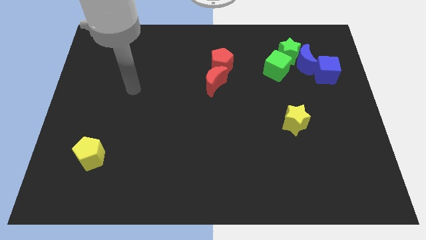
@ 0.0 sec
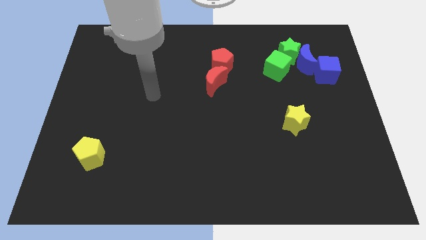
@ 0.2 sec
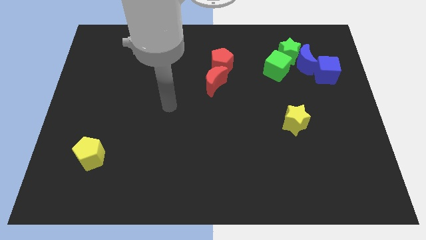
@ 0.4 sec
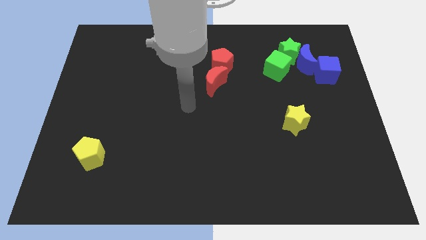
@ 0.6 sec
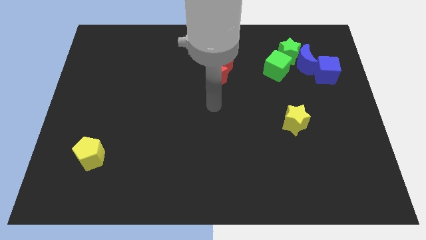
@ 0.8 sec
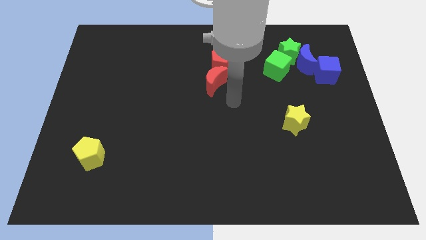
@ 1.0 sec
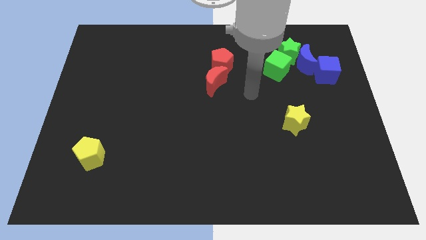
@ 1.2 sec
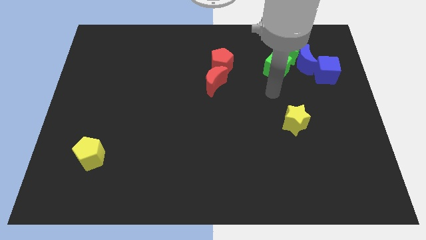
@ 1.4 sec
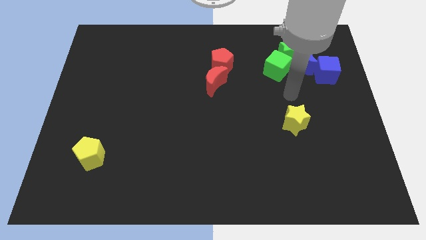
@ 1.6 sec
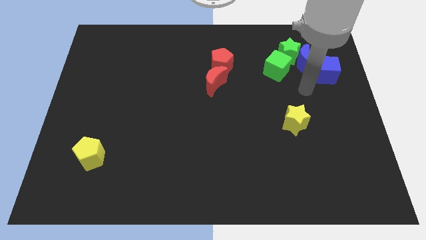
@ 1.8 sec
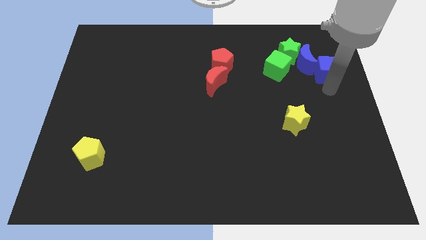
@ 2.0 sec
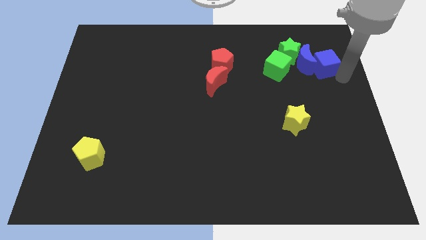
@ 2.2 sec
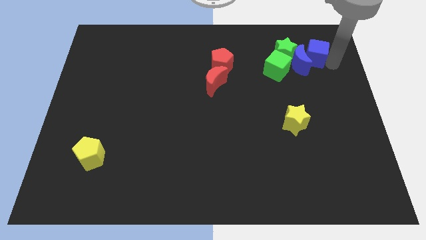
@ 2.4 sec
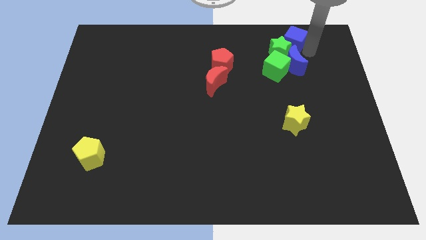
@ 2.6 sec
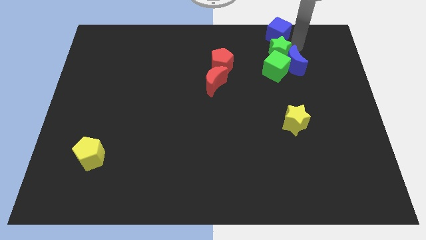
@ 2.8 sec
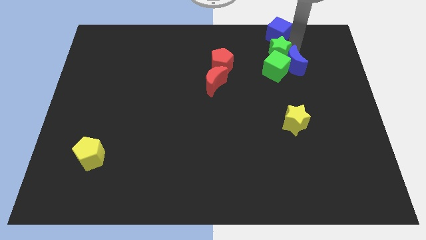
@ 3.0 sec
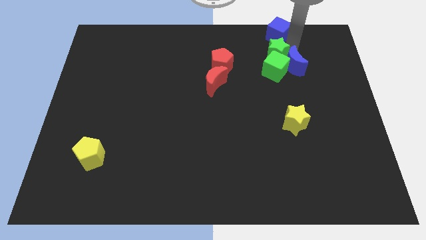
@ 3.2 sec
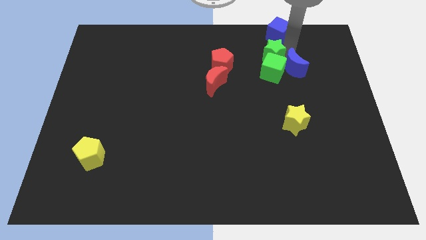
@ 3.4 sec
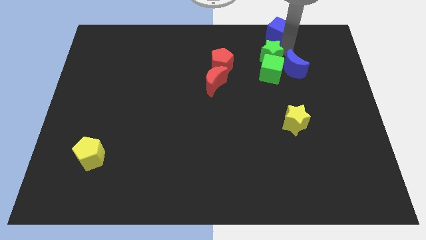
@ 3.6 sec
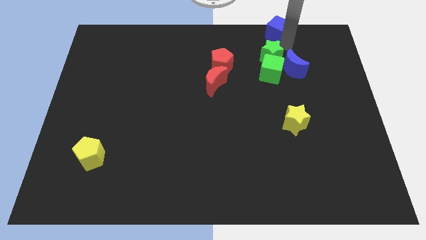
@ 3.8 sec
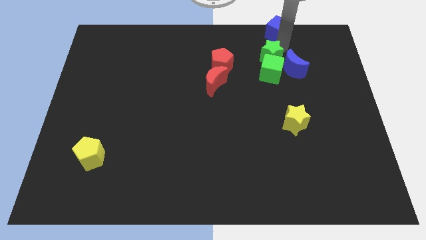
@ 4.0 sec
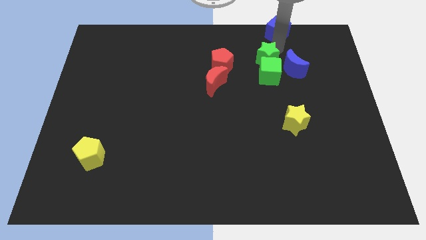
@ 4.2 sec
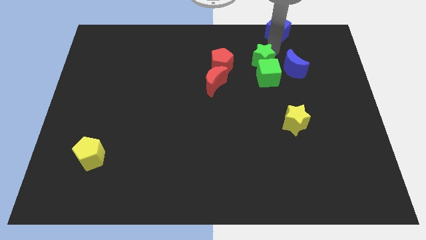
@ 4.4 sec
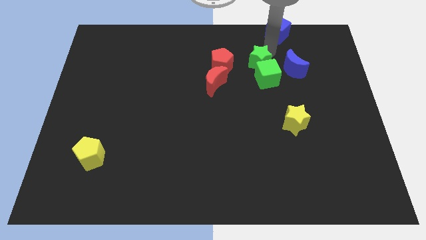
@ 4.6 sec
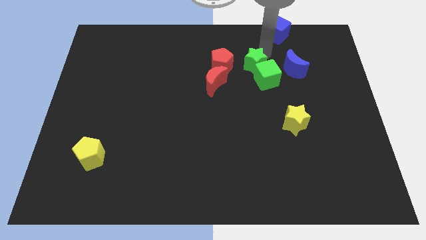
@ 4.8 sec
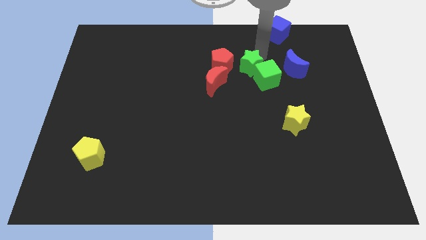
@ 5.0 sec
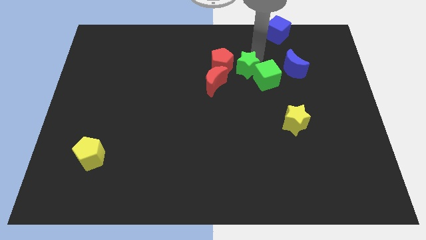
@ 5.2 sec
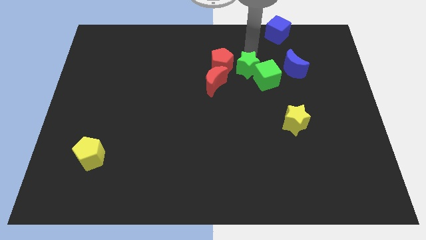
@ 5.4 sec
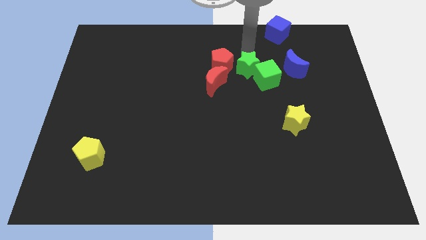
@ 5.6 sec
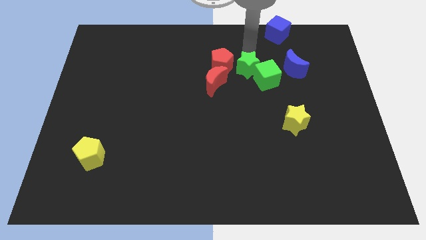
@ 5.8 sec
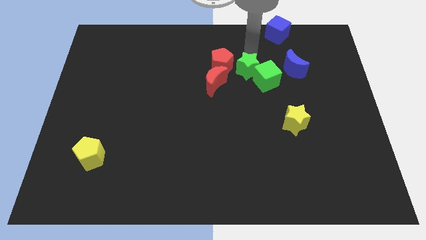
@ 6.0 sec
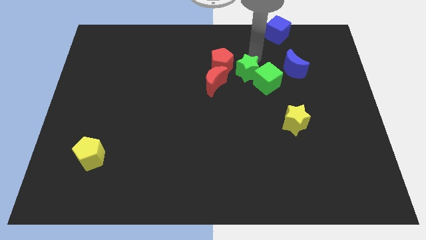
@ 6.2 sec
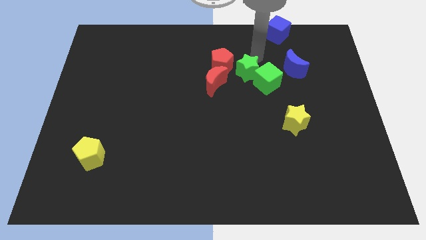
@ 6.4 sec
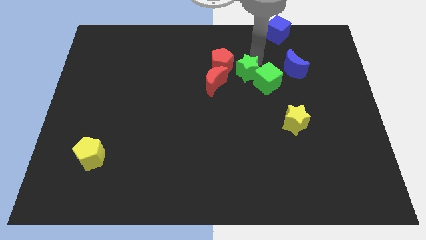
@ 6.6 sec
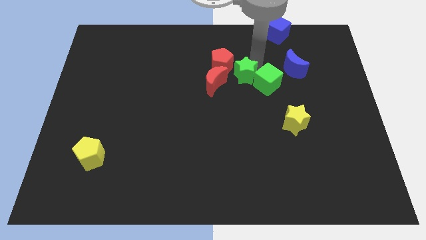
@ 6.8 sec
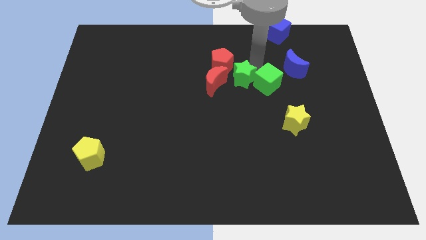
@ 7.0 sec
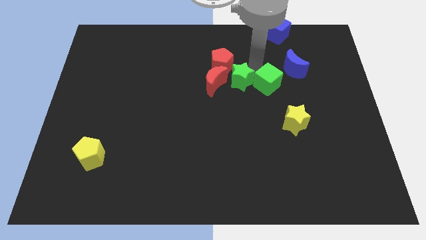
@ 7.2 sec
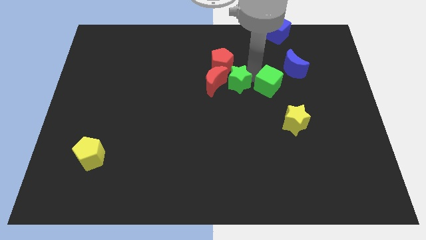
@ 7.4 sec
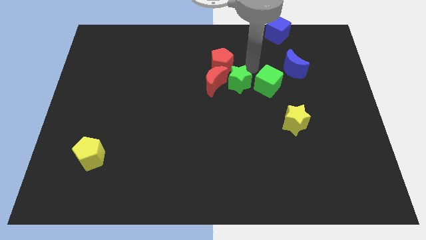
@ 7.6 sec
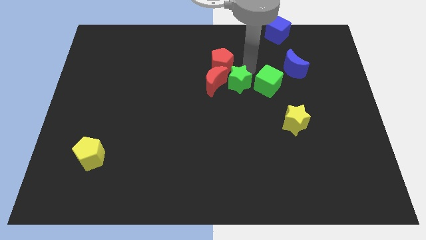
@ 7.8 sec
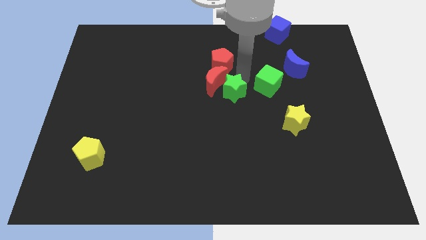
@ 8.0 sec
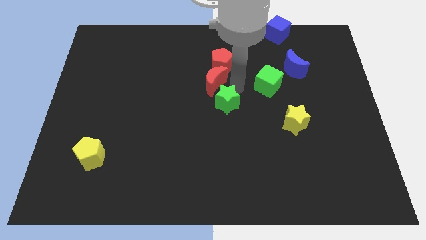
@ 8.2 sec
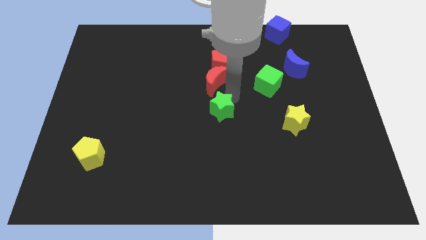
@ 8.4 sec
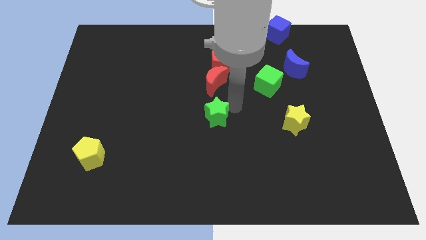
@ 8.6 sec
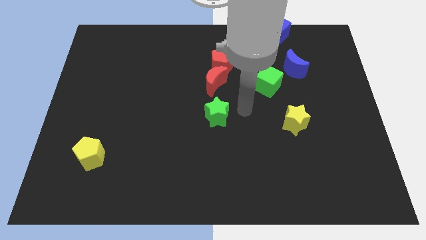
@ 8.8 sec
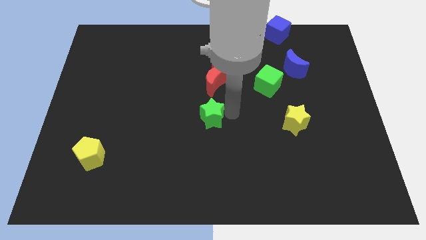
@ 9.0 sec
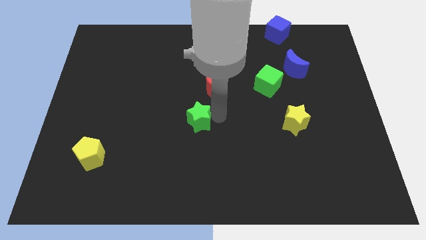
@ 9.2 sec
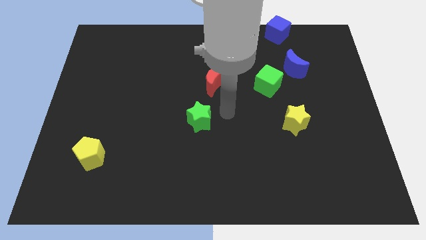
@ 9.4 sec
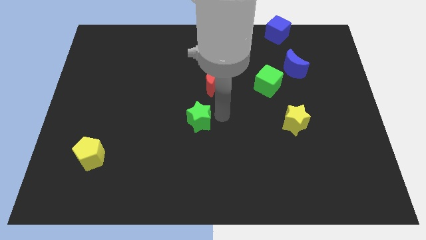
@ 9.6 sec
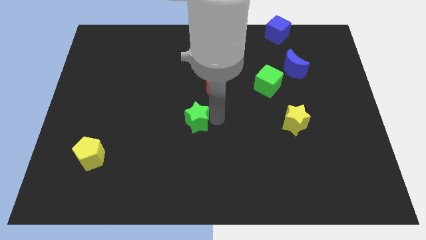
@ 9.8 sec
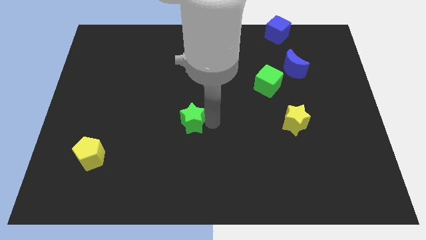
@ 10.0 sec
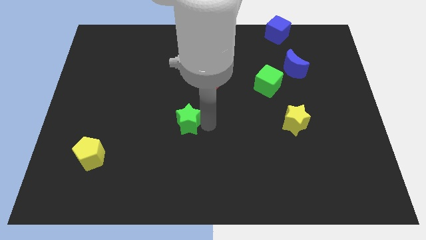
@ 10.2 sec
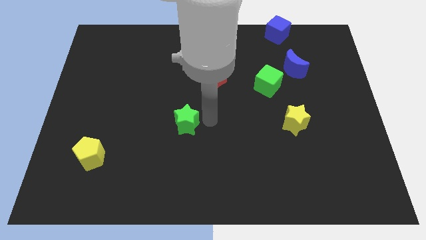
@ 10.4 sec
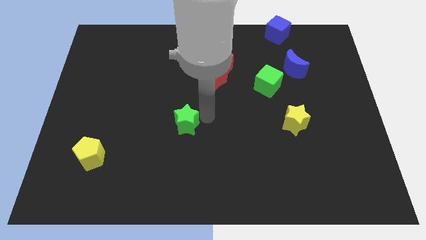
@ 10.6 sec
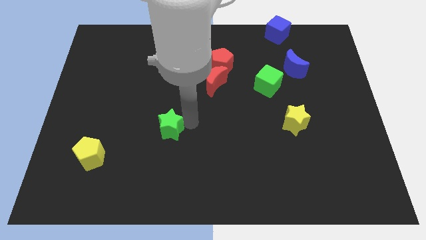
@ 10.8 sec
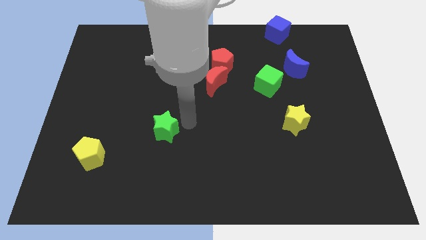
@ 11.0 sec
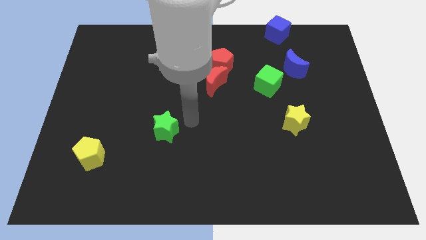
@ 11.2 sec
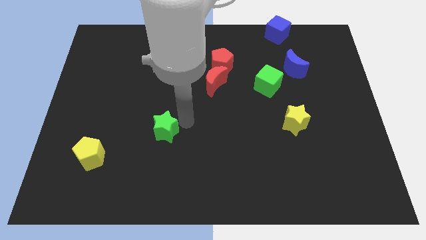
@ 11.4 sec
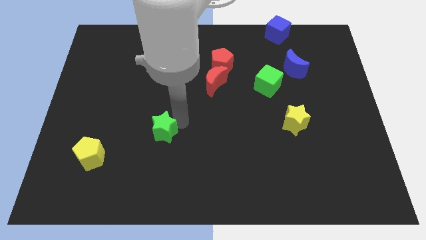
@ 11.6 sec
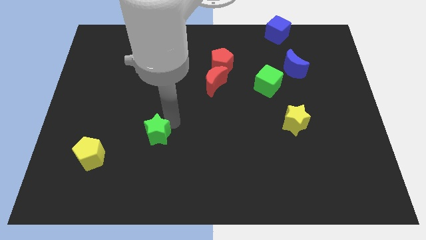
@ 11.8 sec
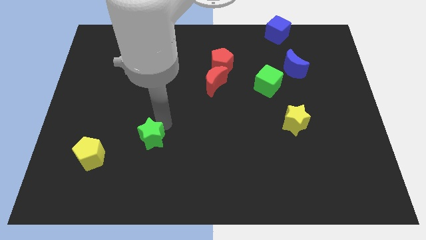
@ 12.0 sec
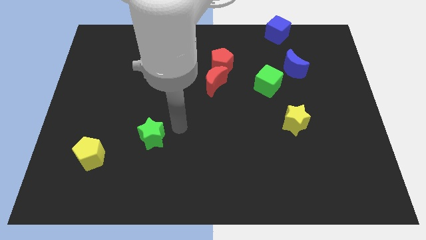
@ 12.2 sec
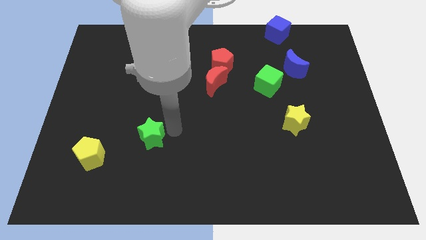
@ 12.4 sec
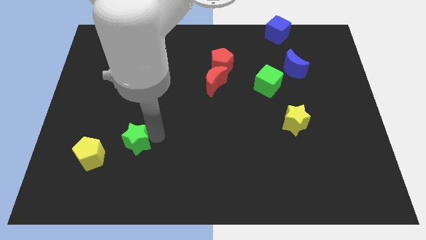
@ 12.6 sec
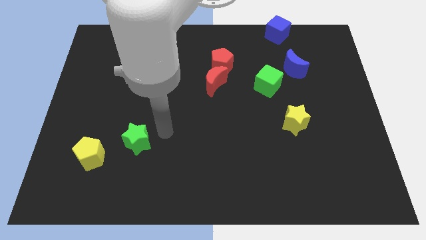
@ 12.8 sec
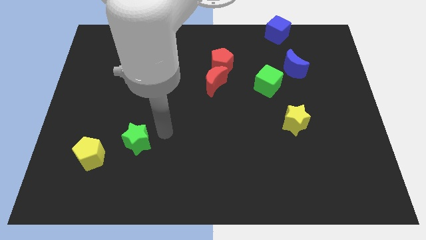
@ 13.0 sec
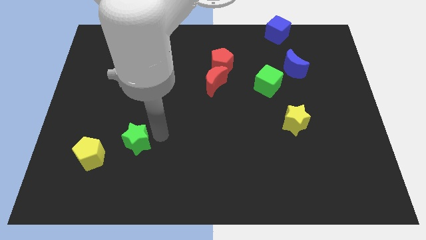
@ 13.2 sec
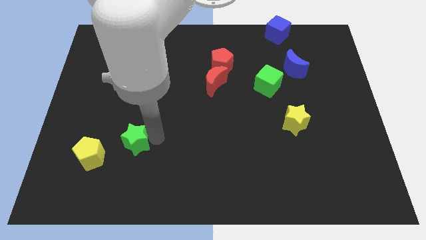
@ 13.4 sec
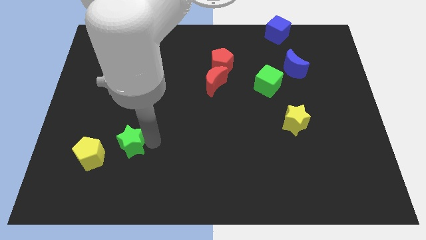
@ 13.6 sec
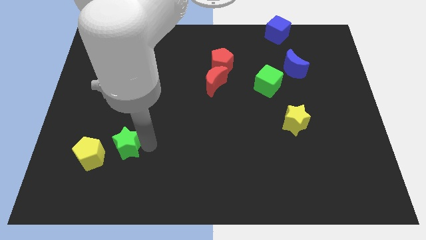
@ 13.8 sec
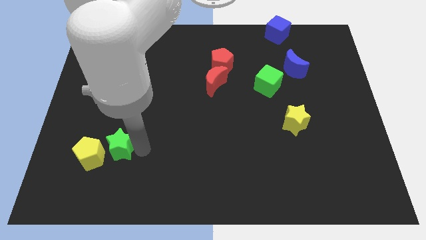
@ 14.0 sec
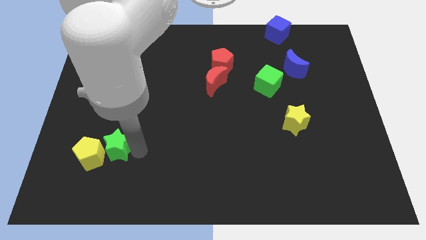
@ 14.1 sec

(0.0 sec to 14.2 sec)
move the green star next to the yellow pentagon
